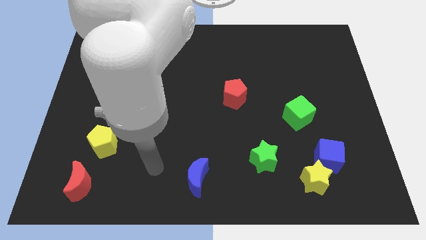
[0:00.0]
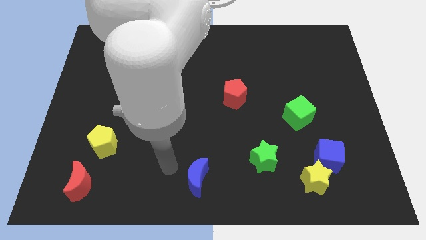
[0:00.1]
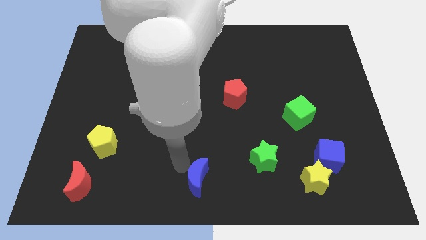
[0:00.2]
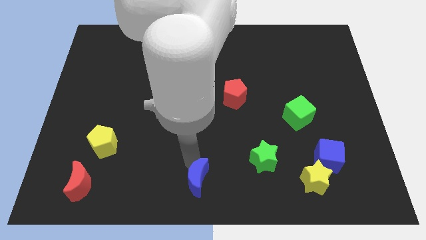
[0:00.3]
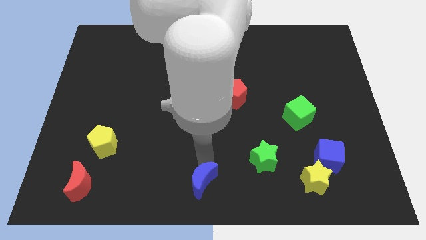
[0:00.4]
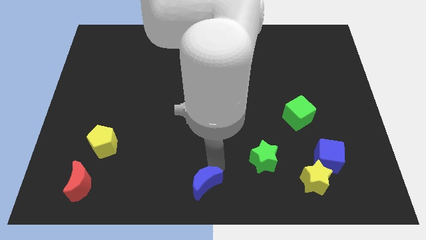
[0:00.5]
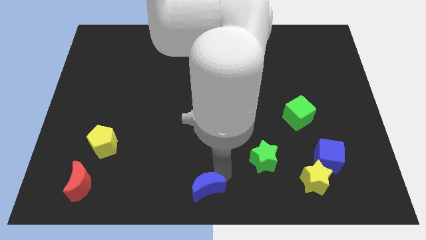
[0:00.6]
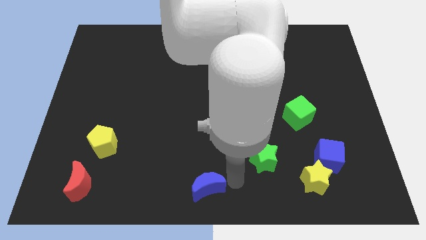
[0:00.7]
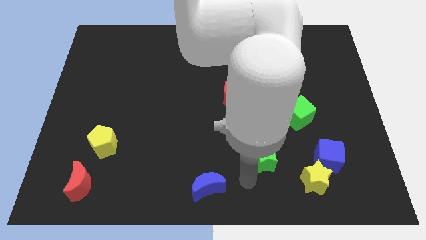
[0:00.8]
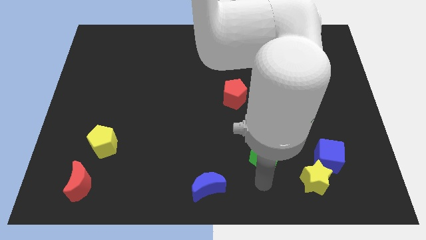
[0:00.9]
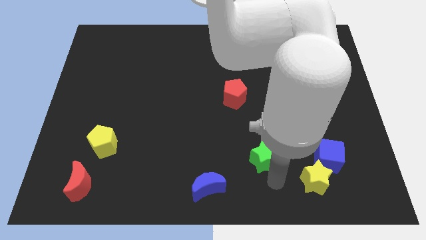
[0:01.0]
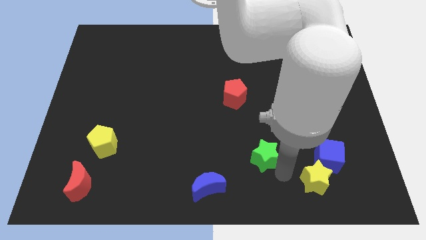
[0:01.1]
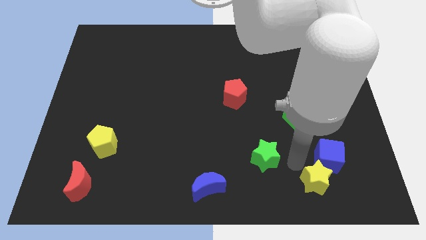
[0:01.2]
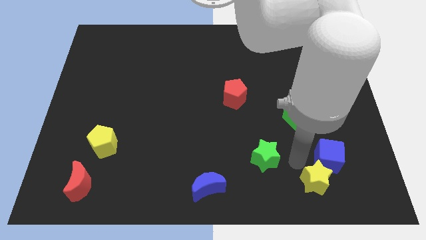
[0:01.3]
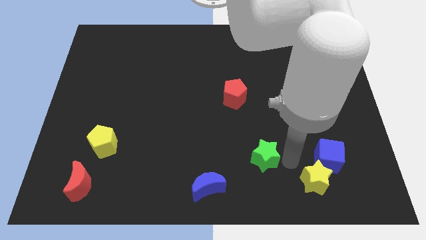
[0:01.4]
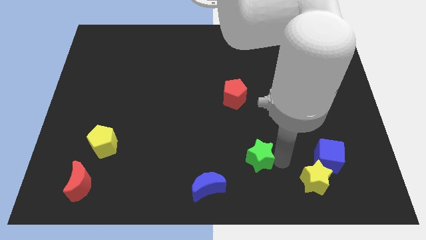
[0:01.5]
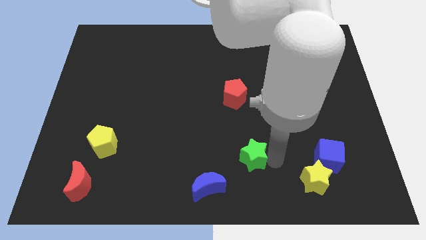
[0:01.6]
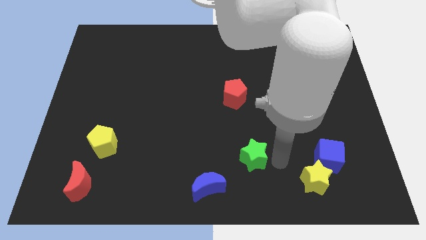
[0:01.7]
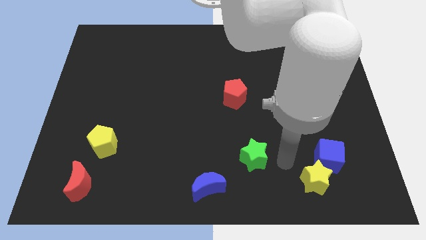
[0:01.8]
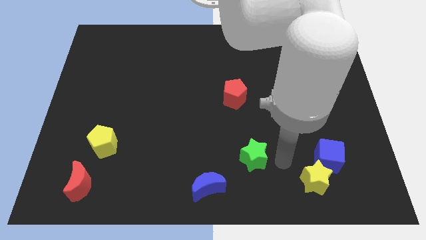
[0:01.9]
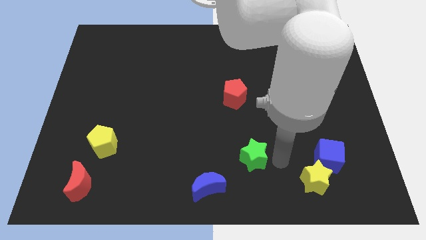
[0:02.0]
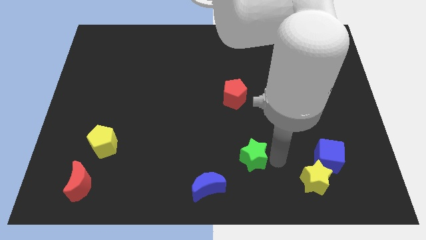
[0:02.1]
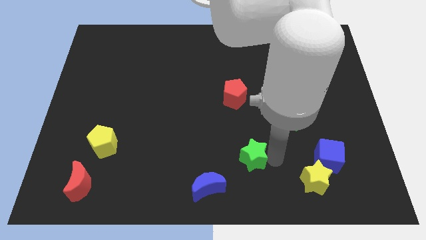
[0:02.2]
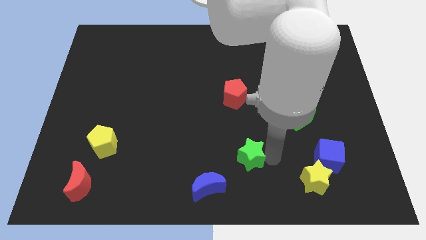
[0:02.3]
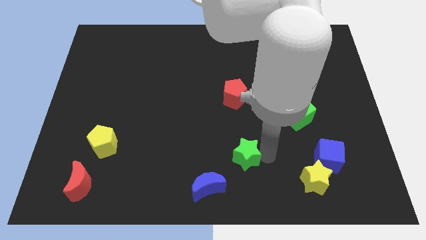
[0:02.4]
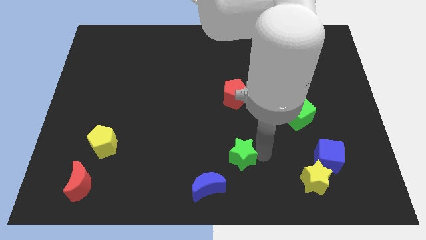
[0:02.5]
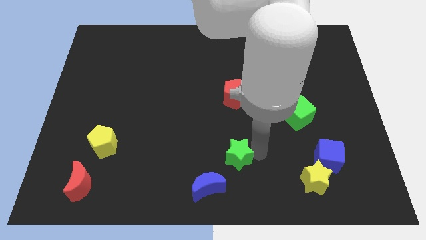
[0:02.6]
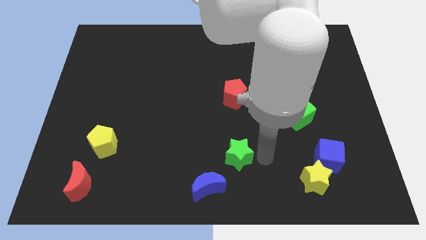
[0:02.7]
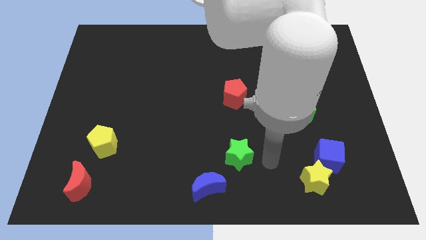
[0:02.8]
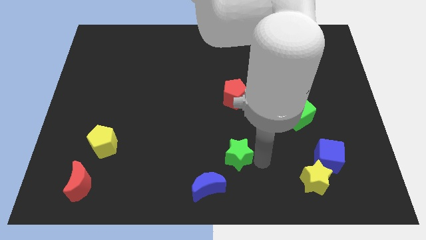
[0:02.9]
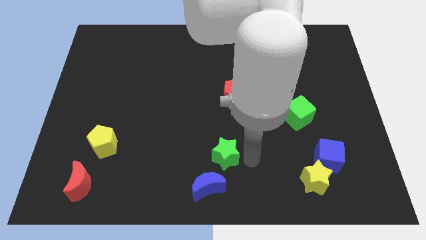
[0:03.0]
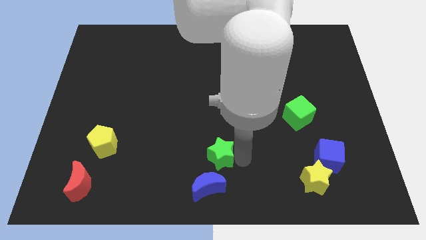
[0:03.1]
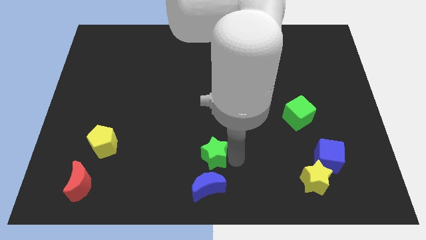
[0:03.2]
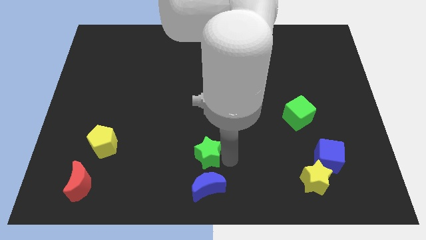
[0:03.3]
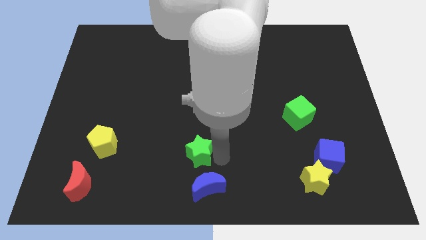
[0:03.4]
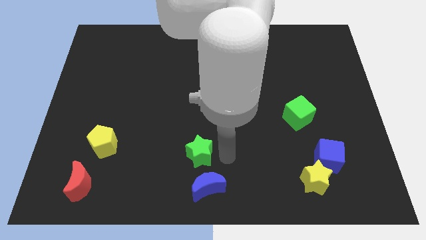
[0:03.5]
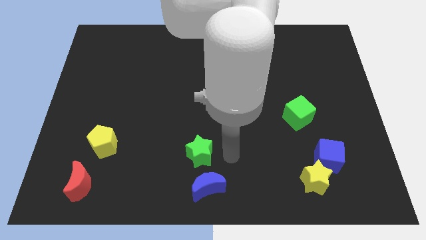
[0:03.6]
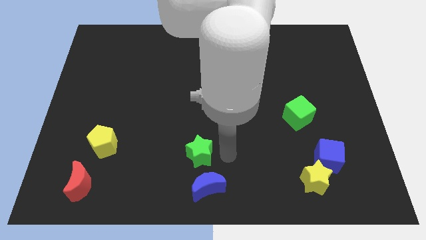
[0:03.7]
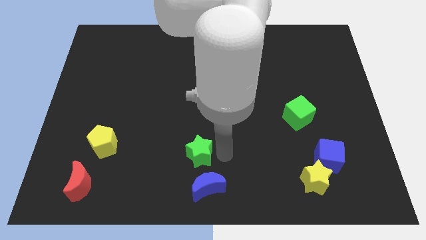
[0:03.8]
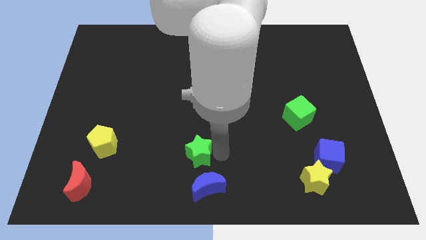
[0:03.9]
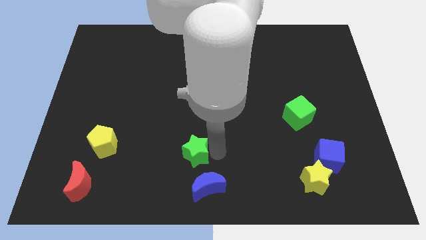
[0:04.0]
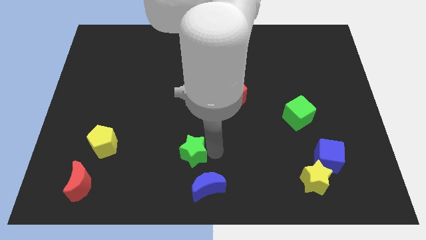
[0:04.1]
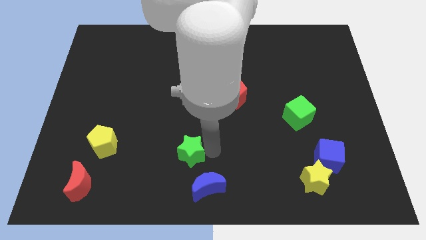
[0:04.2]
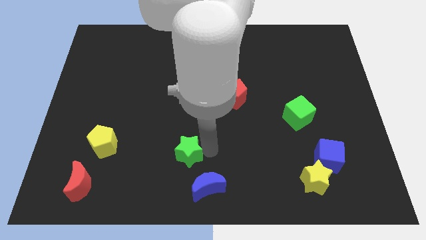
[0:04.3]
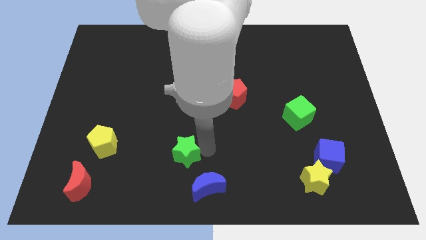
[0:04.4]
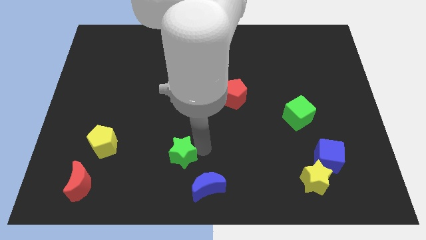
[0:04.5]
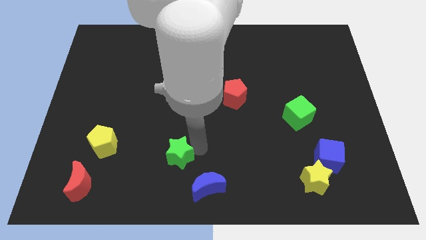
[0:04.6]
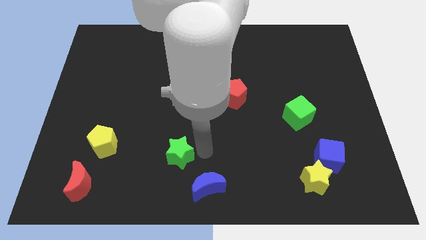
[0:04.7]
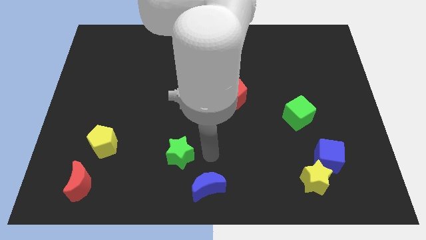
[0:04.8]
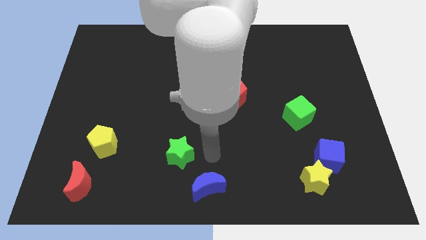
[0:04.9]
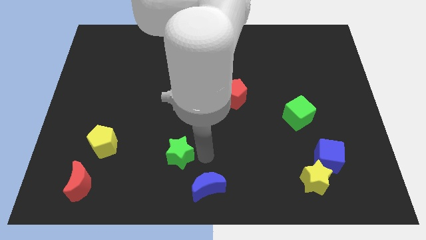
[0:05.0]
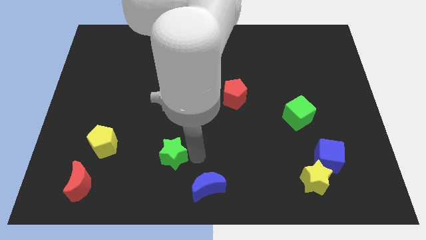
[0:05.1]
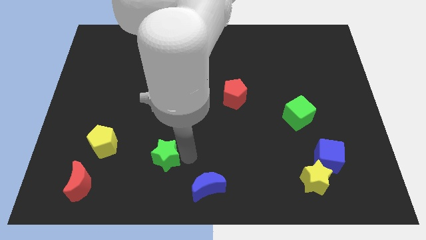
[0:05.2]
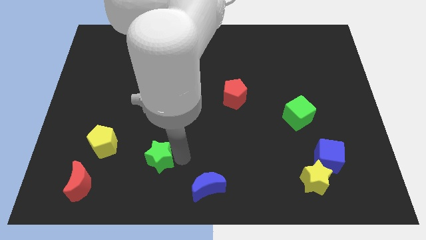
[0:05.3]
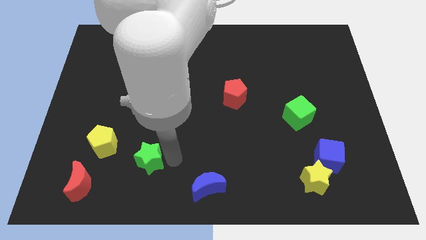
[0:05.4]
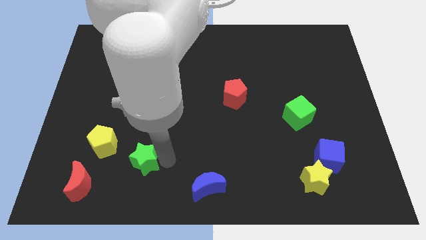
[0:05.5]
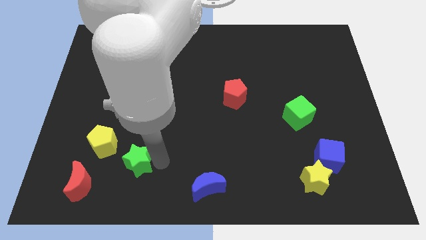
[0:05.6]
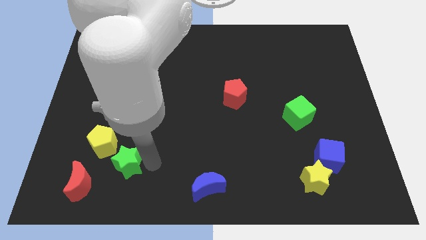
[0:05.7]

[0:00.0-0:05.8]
move the green star diagonally up and to the right of the red moon
